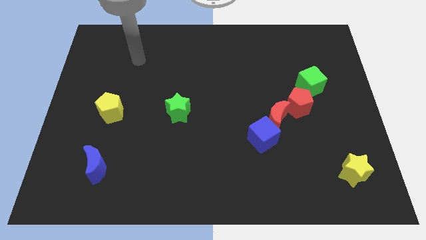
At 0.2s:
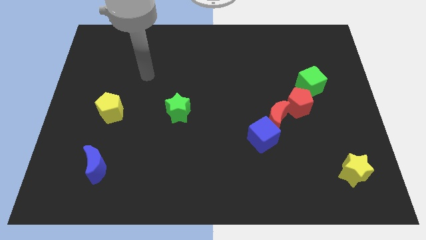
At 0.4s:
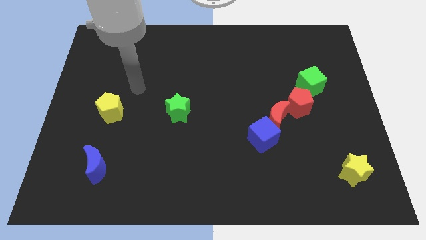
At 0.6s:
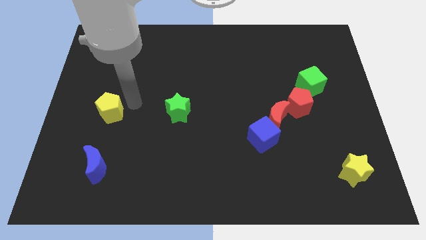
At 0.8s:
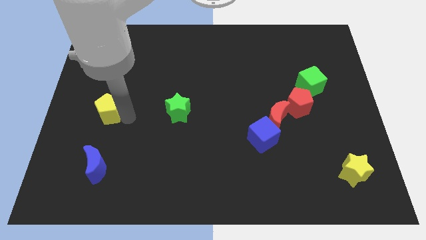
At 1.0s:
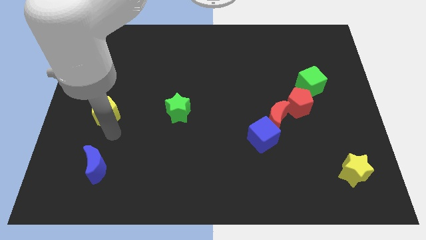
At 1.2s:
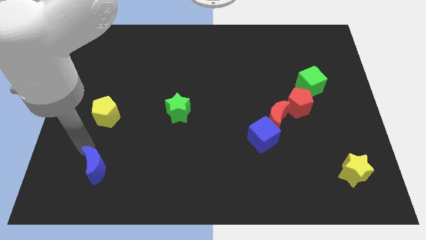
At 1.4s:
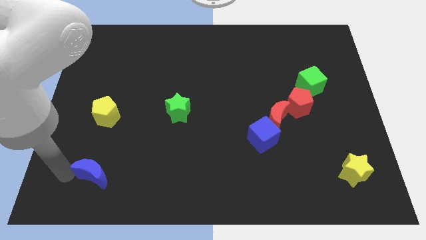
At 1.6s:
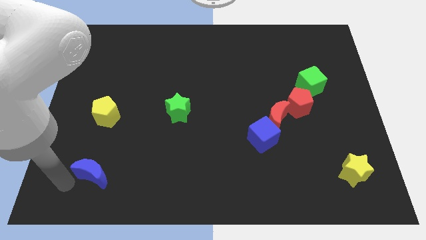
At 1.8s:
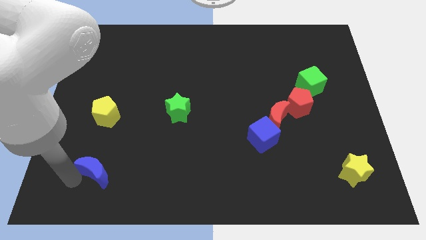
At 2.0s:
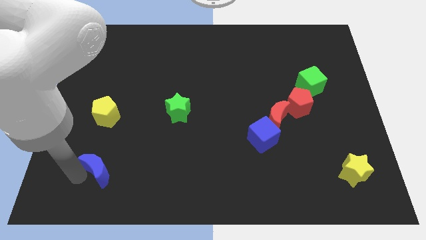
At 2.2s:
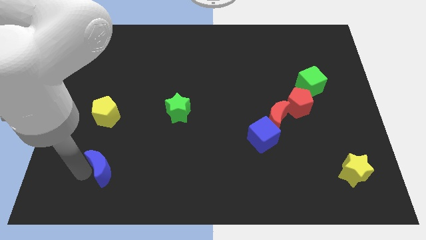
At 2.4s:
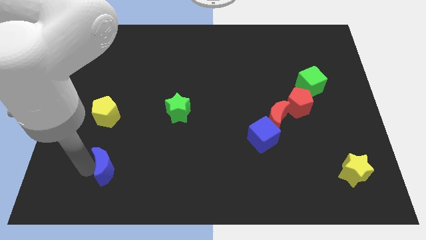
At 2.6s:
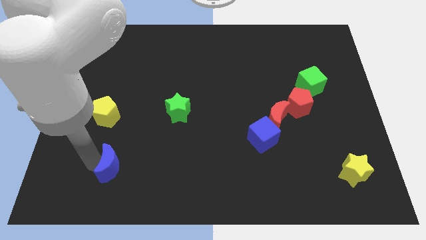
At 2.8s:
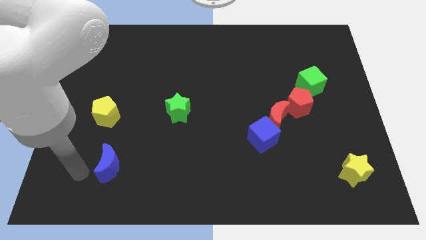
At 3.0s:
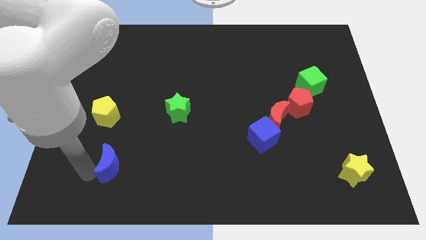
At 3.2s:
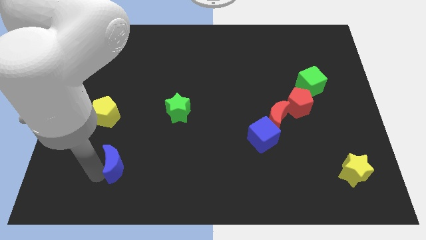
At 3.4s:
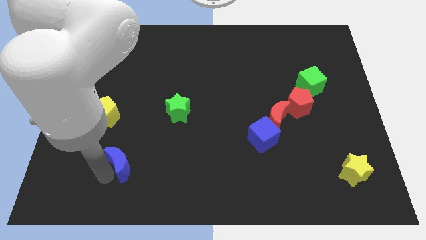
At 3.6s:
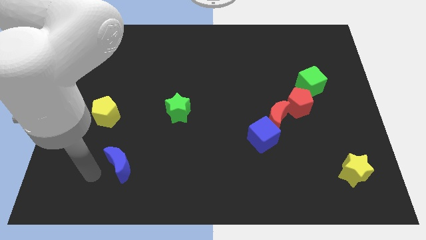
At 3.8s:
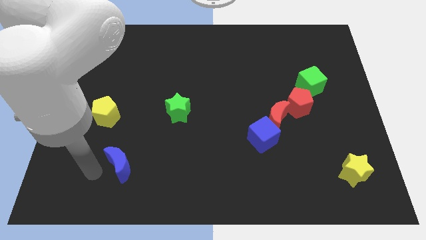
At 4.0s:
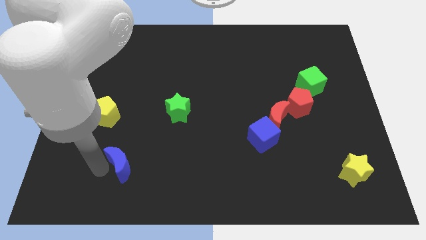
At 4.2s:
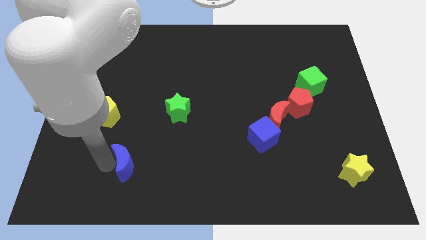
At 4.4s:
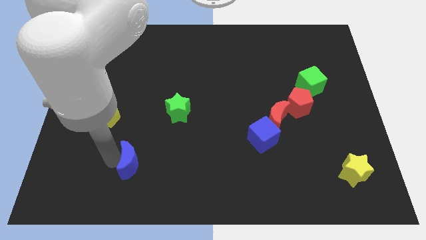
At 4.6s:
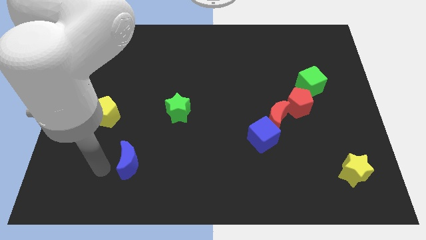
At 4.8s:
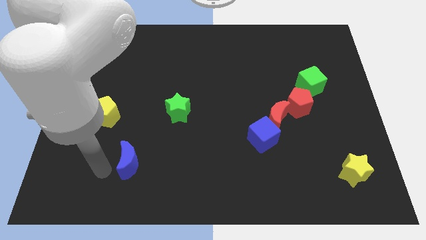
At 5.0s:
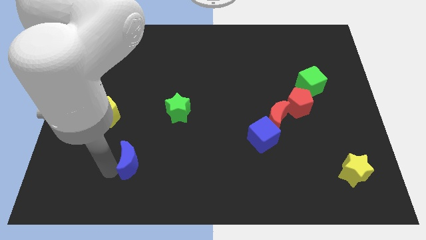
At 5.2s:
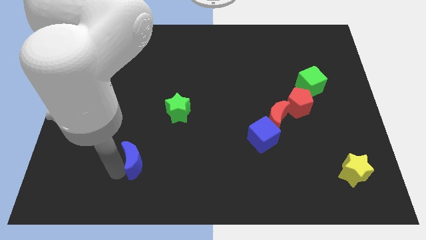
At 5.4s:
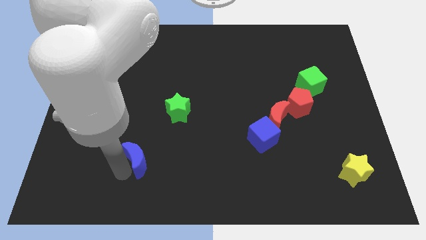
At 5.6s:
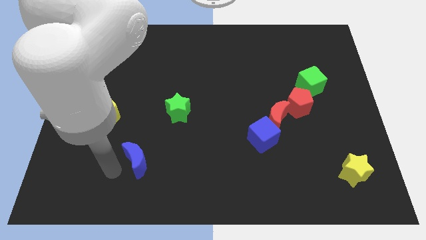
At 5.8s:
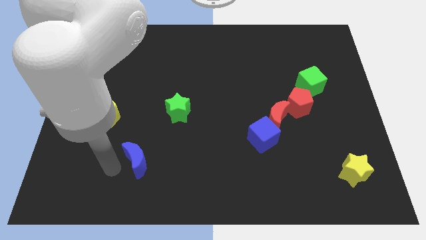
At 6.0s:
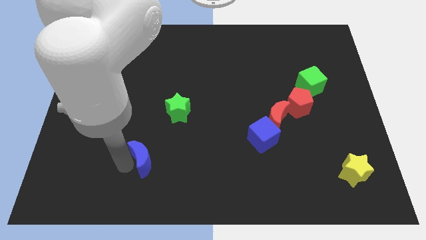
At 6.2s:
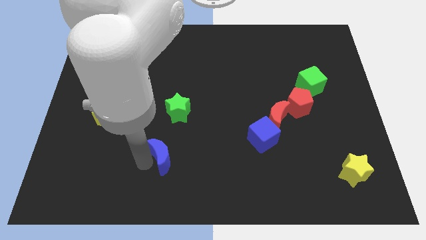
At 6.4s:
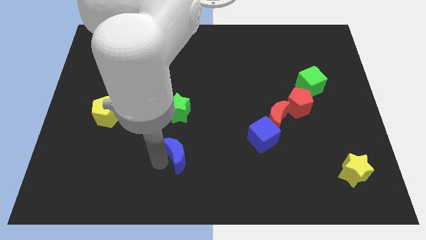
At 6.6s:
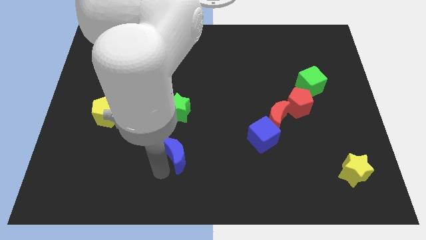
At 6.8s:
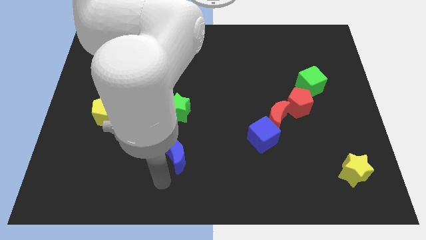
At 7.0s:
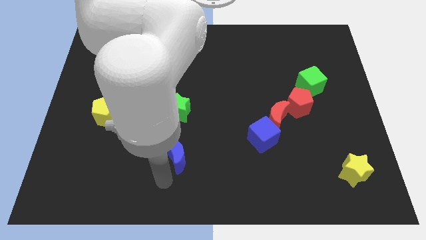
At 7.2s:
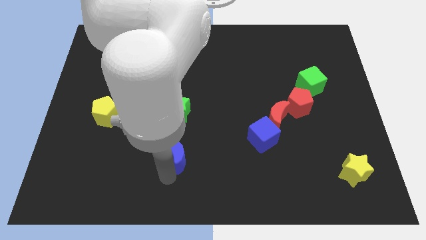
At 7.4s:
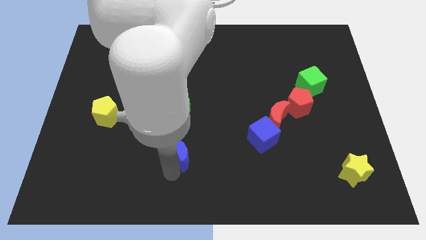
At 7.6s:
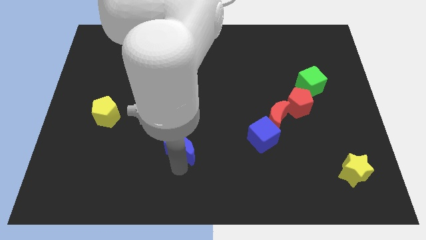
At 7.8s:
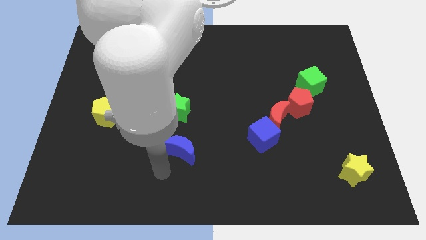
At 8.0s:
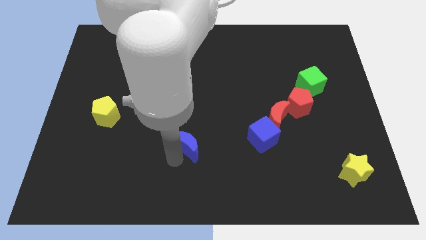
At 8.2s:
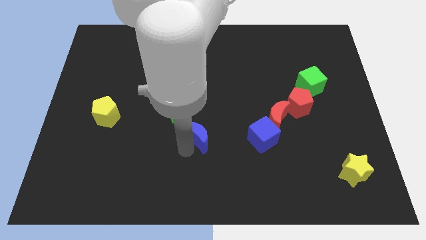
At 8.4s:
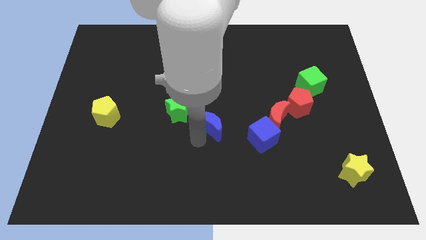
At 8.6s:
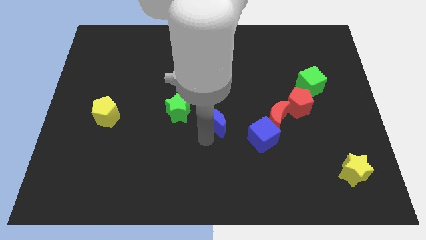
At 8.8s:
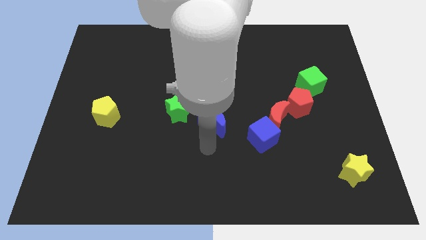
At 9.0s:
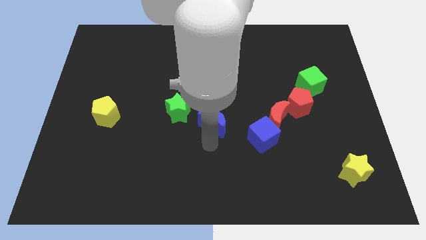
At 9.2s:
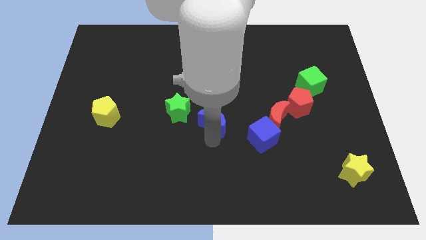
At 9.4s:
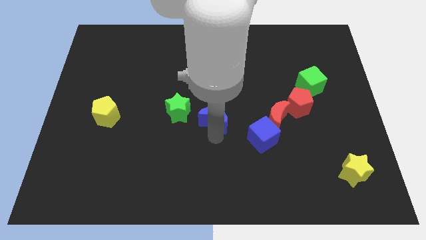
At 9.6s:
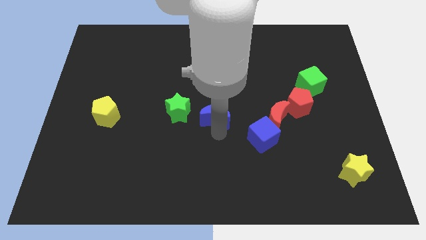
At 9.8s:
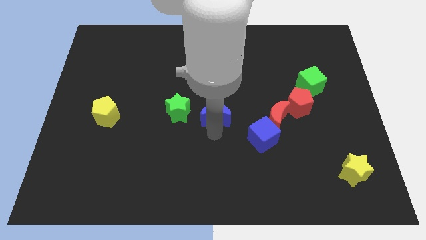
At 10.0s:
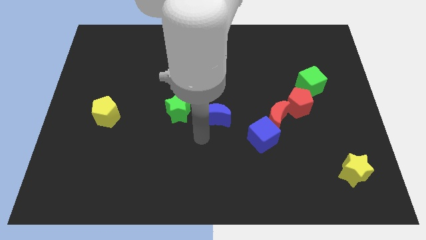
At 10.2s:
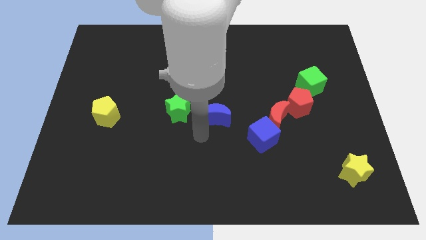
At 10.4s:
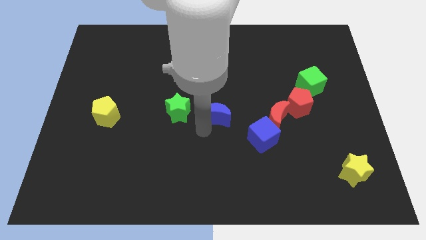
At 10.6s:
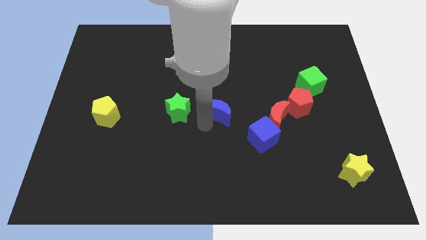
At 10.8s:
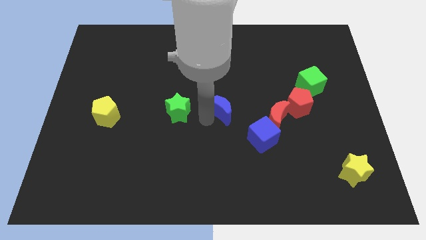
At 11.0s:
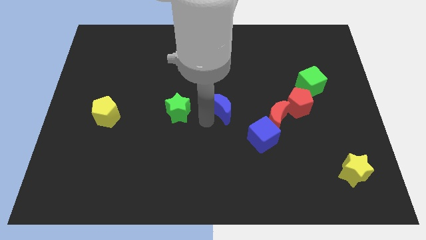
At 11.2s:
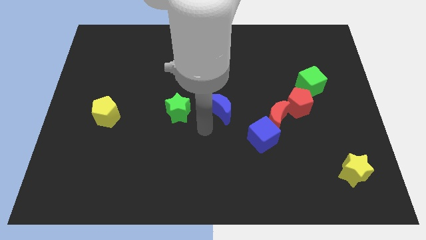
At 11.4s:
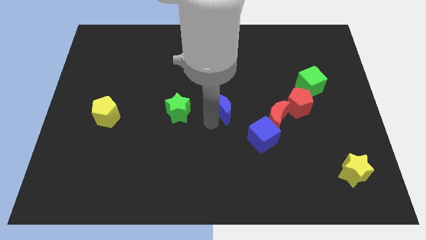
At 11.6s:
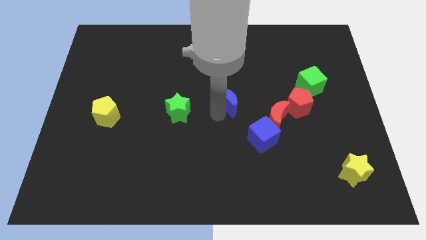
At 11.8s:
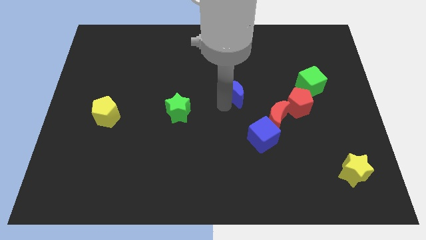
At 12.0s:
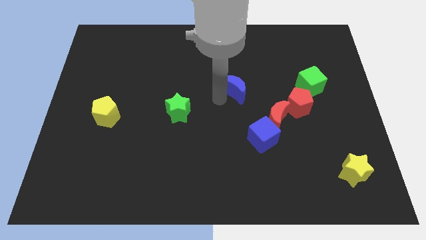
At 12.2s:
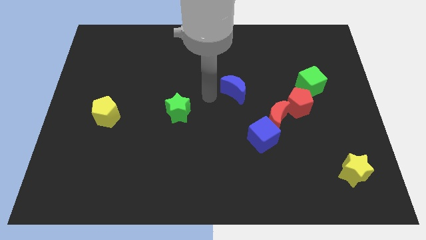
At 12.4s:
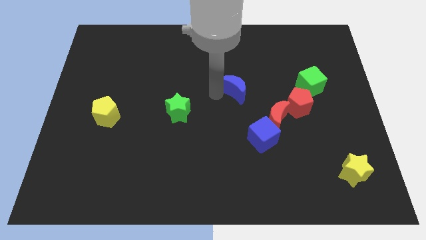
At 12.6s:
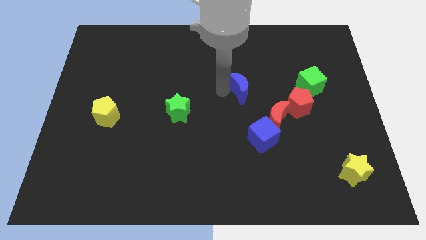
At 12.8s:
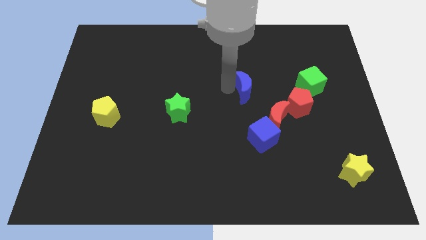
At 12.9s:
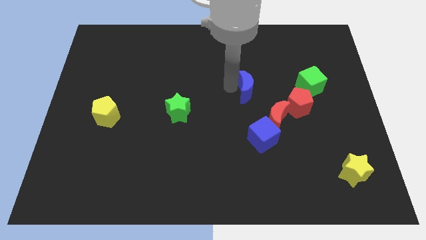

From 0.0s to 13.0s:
push the blue moon to the left side of the green cube
